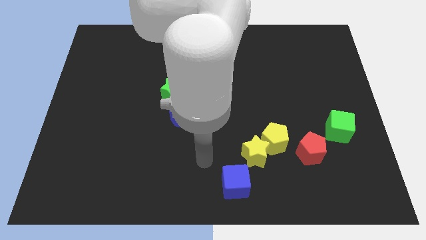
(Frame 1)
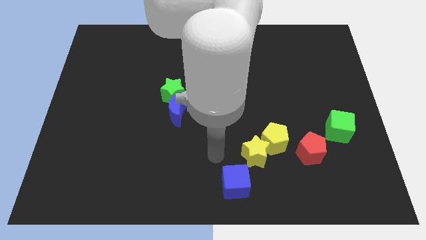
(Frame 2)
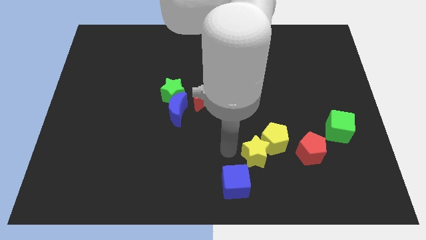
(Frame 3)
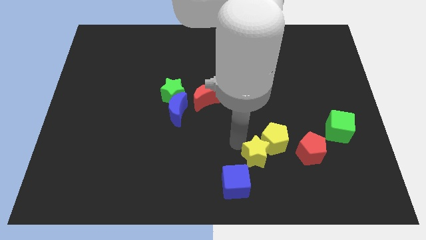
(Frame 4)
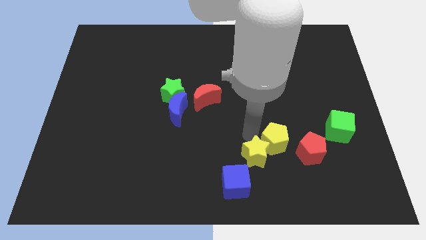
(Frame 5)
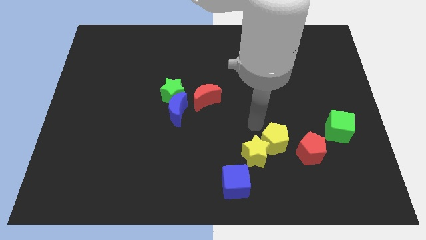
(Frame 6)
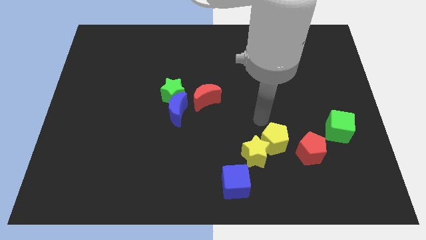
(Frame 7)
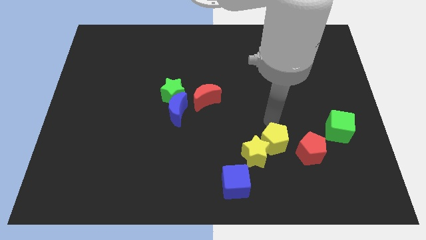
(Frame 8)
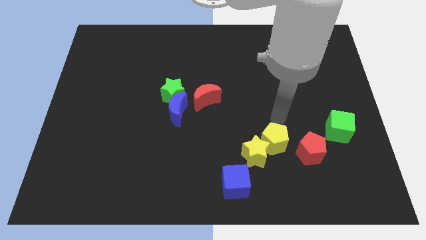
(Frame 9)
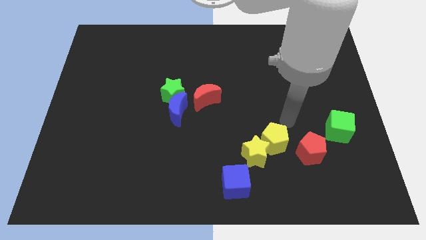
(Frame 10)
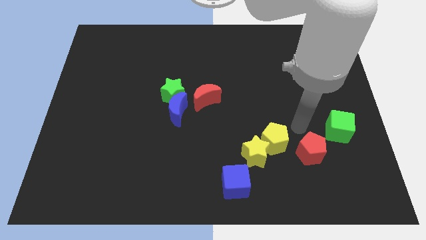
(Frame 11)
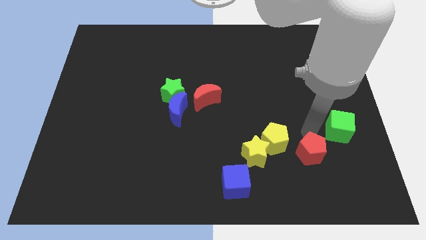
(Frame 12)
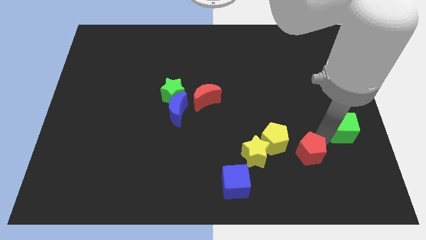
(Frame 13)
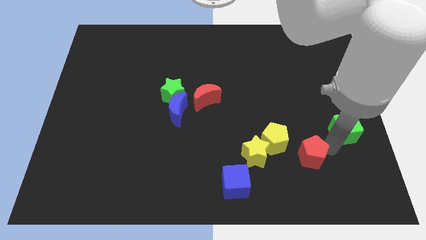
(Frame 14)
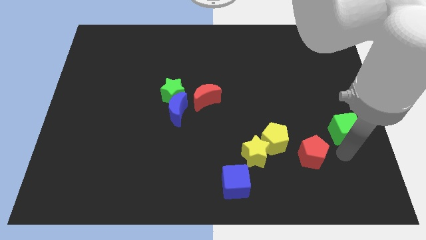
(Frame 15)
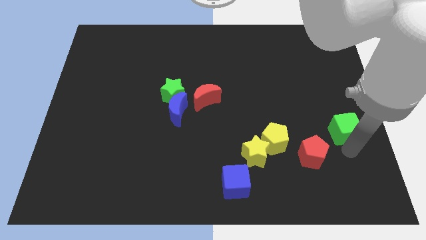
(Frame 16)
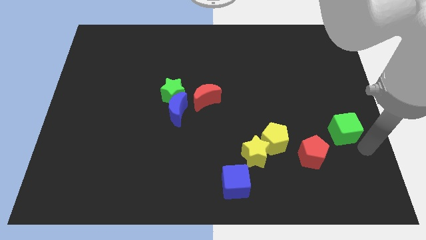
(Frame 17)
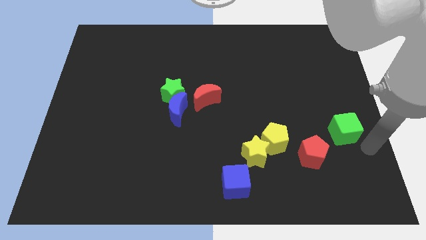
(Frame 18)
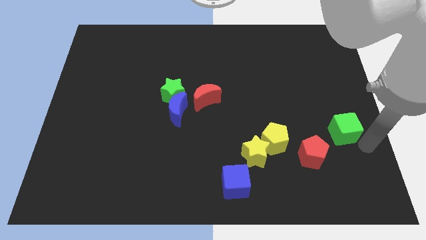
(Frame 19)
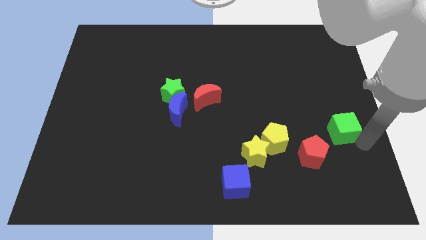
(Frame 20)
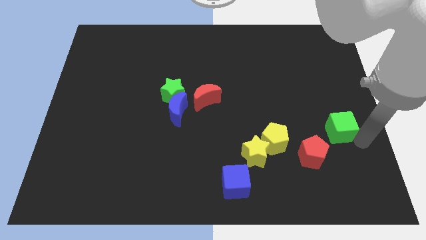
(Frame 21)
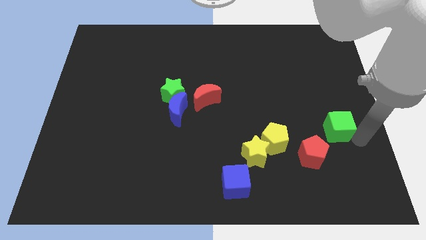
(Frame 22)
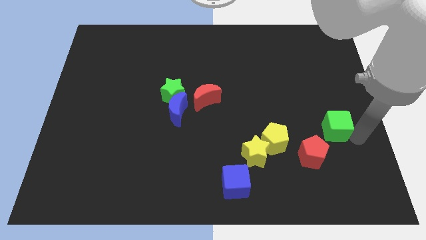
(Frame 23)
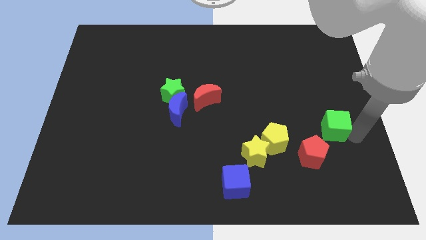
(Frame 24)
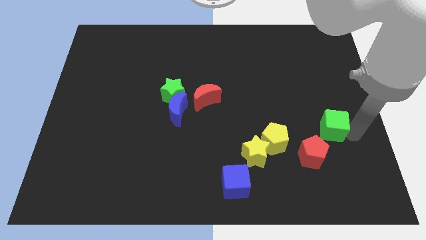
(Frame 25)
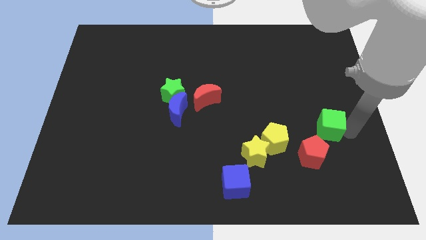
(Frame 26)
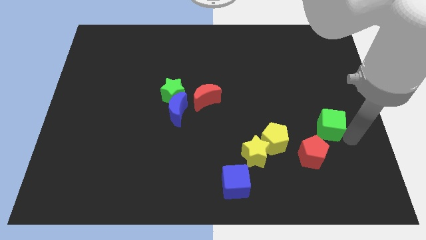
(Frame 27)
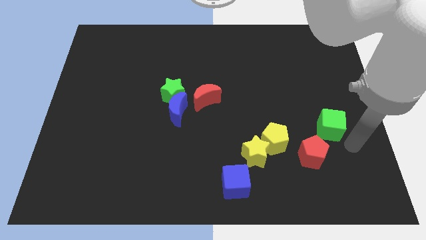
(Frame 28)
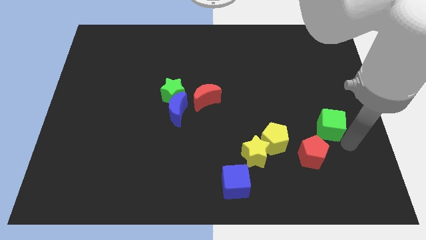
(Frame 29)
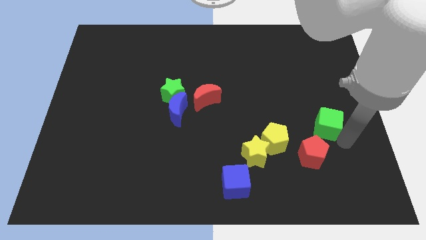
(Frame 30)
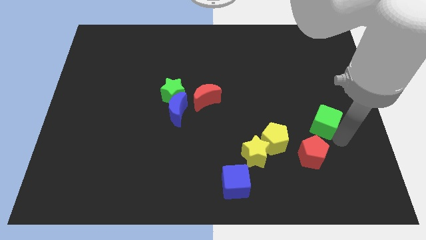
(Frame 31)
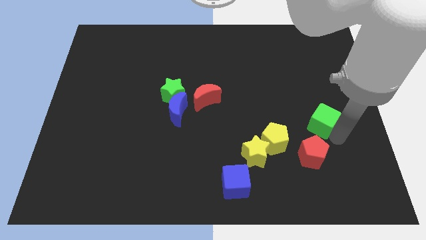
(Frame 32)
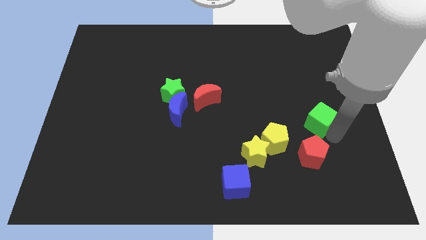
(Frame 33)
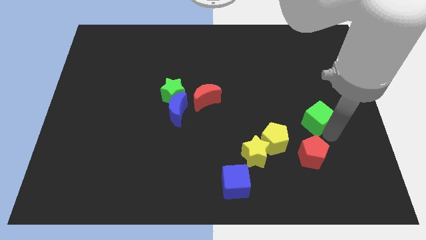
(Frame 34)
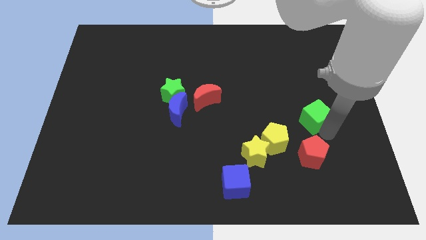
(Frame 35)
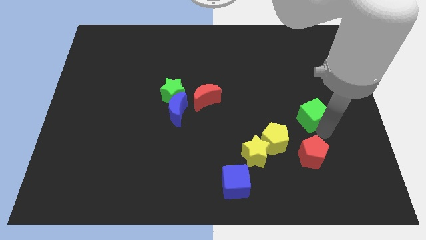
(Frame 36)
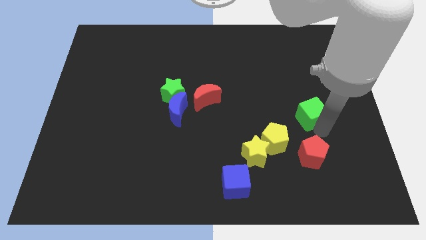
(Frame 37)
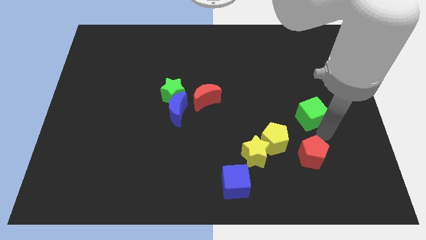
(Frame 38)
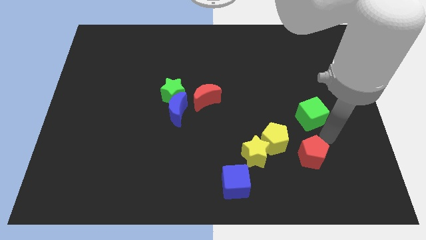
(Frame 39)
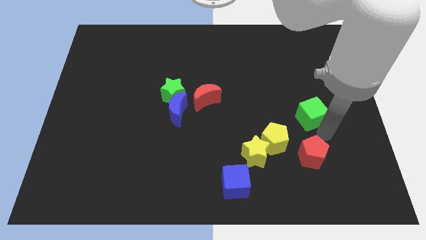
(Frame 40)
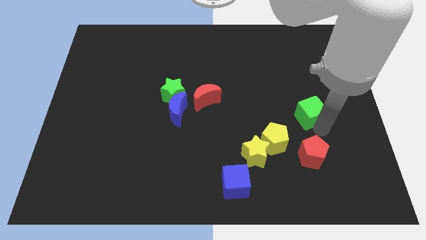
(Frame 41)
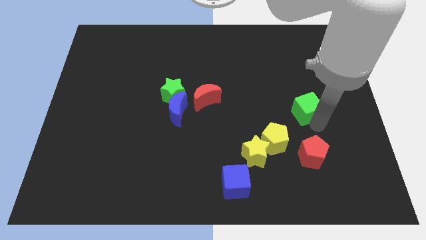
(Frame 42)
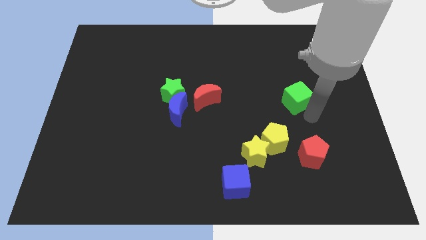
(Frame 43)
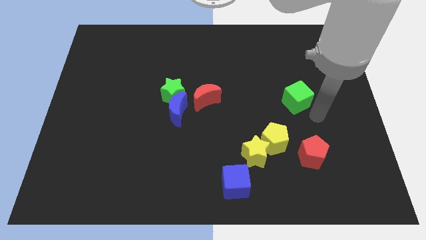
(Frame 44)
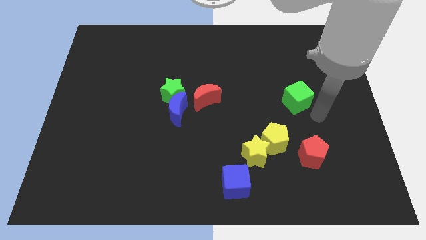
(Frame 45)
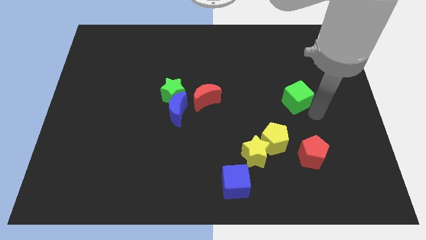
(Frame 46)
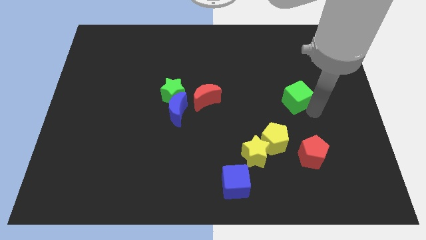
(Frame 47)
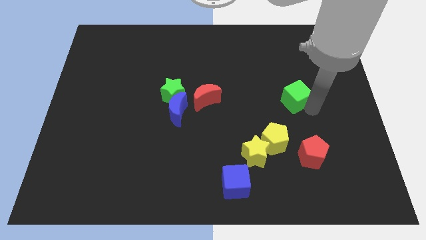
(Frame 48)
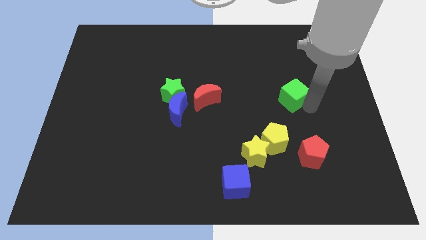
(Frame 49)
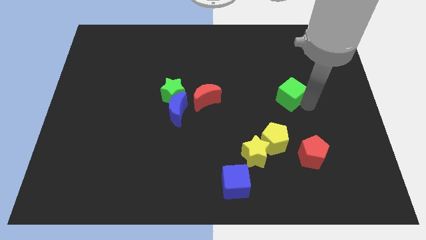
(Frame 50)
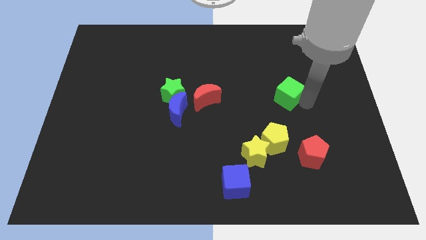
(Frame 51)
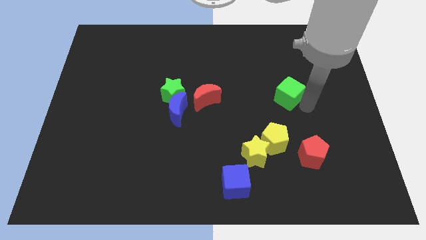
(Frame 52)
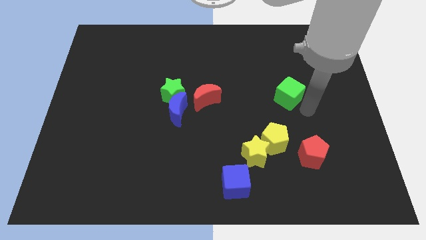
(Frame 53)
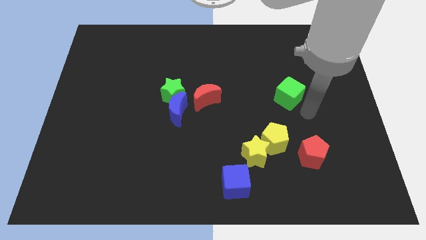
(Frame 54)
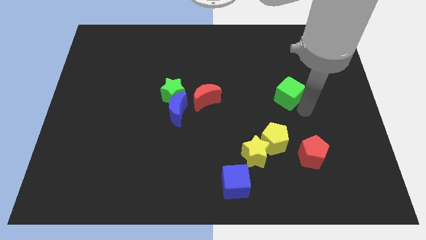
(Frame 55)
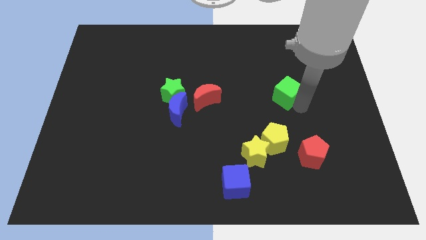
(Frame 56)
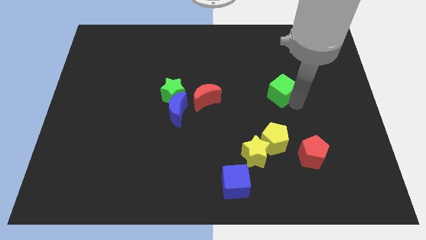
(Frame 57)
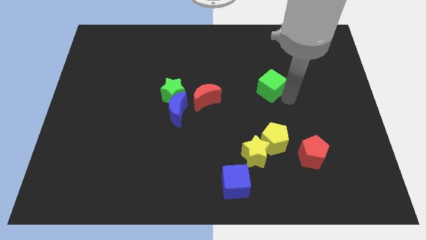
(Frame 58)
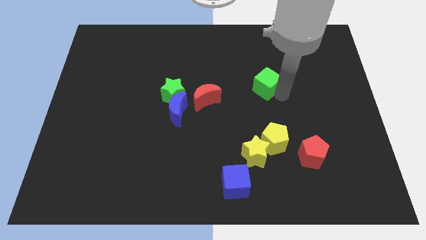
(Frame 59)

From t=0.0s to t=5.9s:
slide the green cube up and then to the left

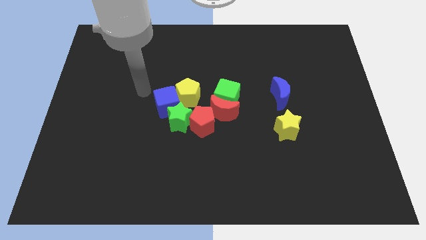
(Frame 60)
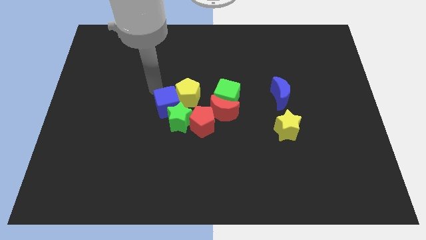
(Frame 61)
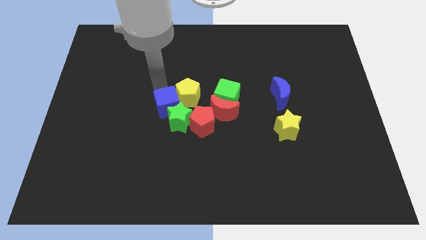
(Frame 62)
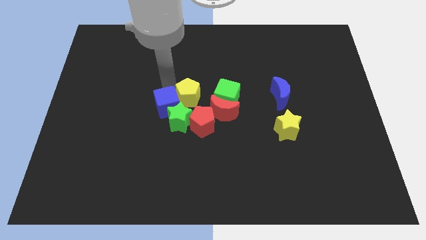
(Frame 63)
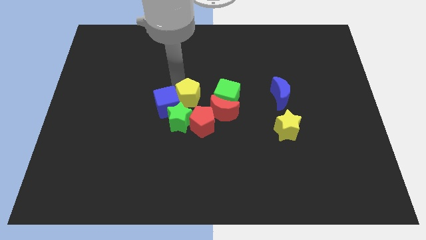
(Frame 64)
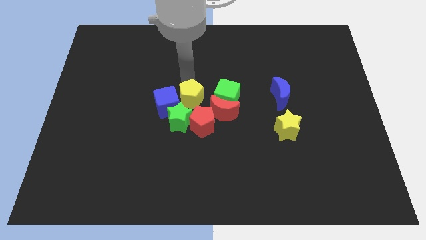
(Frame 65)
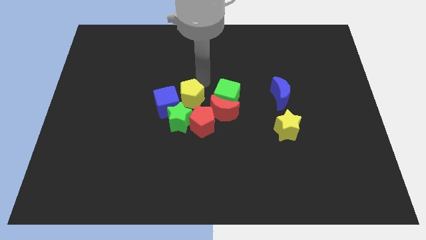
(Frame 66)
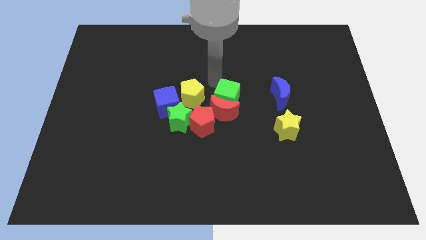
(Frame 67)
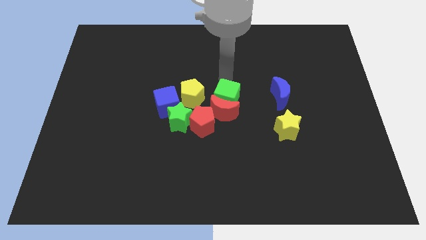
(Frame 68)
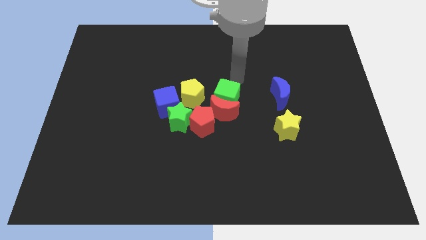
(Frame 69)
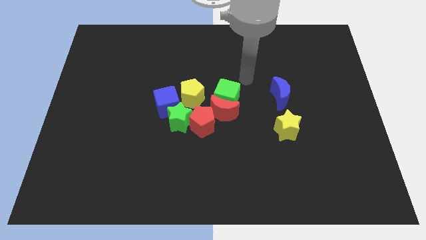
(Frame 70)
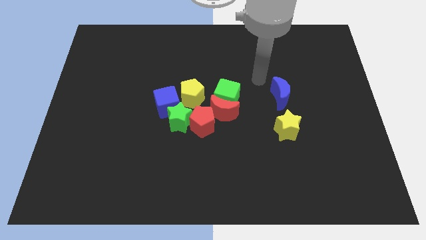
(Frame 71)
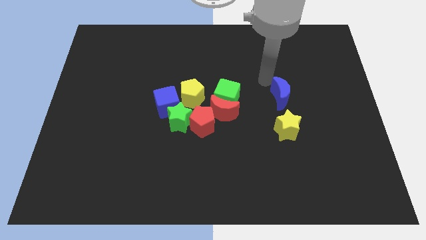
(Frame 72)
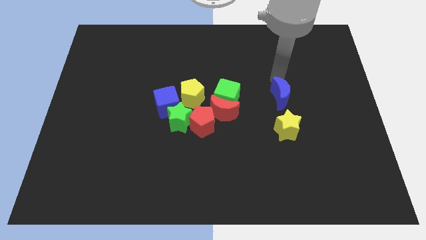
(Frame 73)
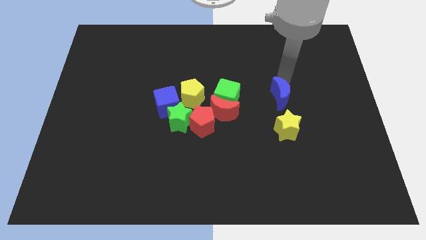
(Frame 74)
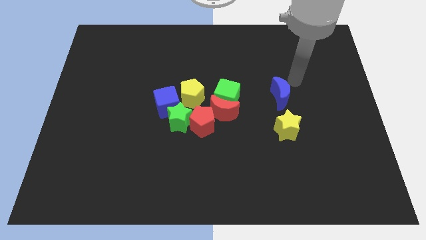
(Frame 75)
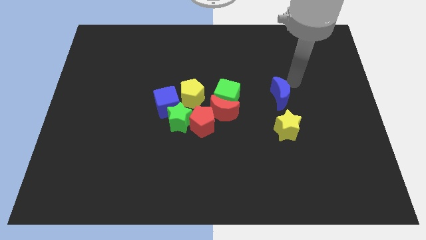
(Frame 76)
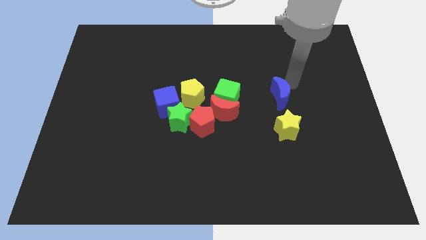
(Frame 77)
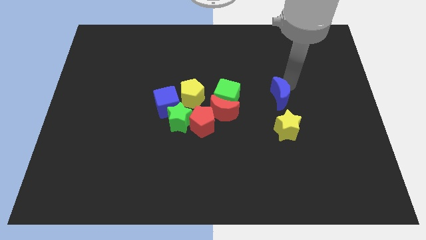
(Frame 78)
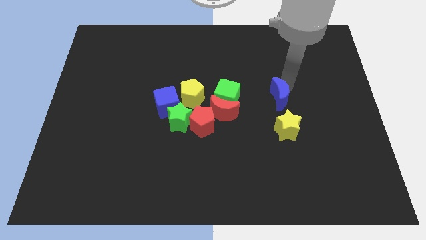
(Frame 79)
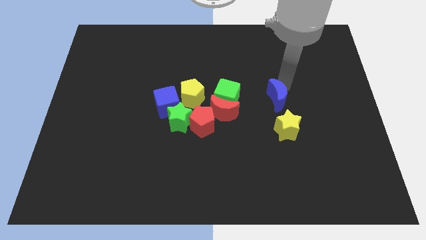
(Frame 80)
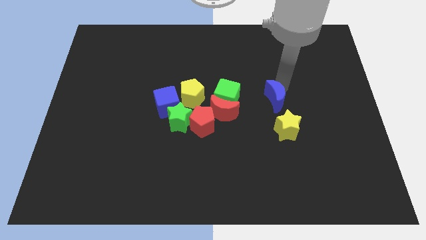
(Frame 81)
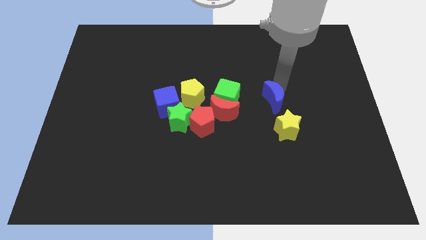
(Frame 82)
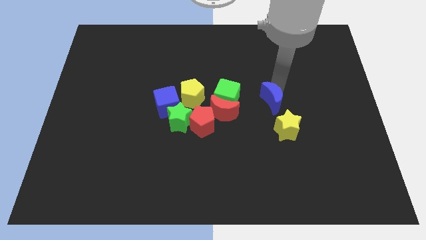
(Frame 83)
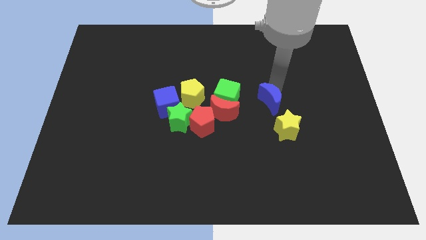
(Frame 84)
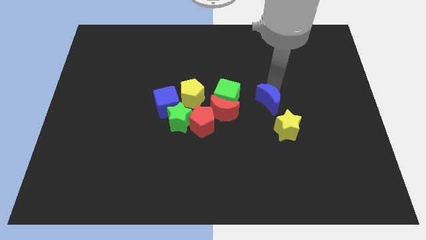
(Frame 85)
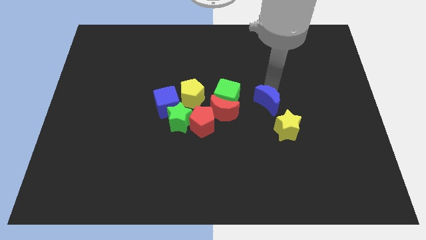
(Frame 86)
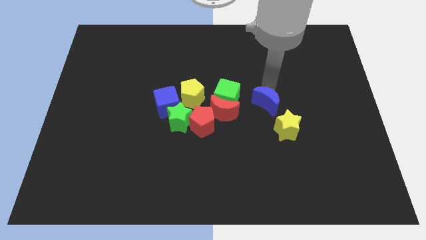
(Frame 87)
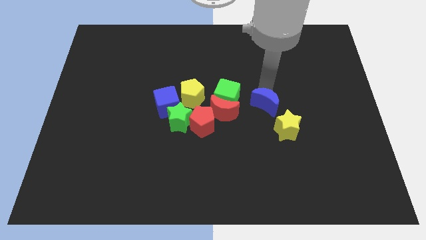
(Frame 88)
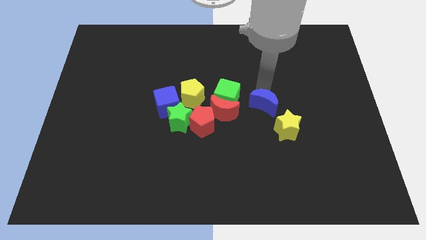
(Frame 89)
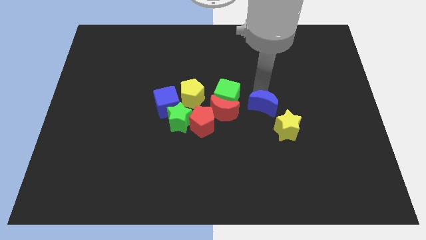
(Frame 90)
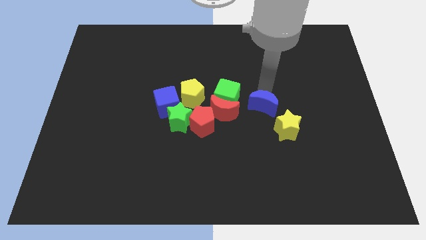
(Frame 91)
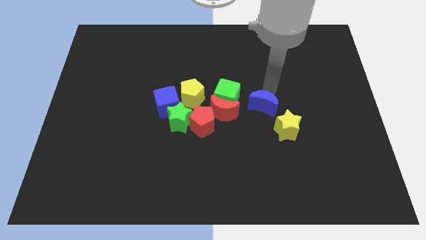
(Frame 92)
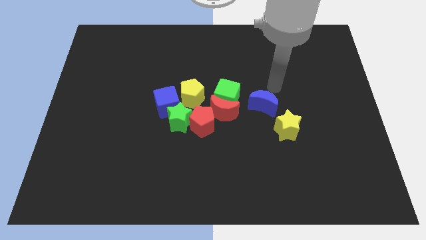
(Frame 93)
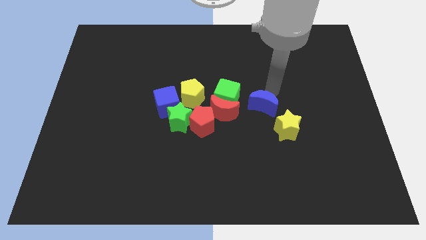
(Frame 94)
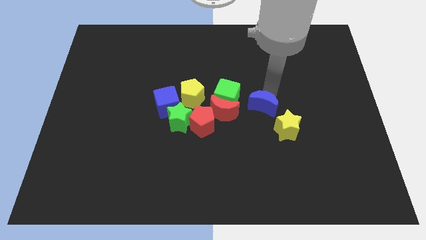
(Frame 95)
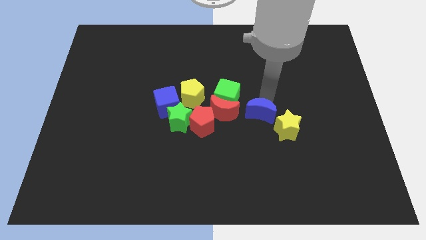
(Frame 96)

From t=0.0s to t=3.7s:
slightly push the blue moon down and left
